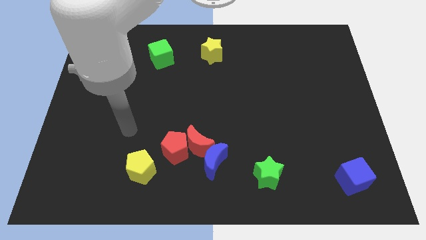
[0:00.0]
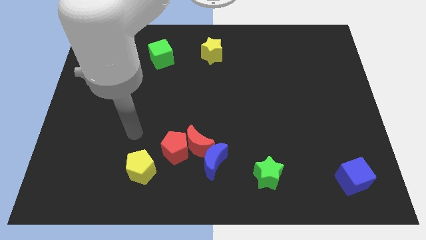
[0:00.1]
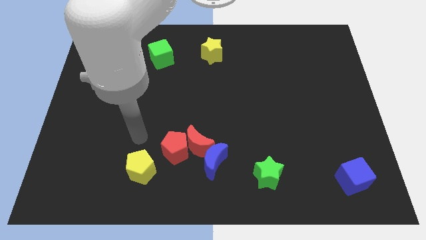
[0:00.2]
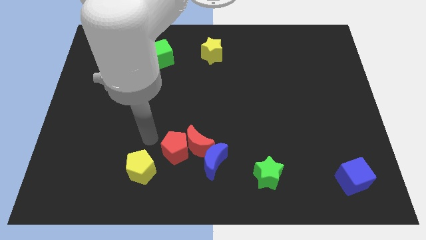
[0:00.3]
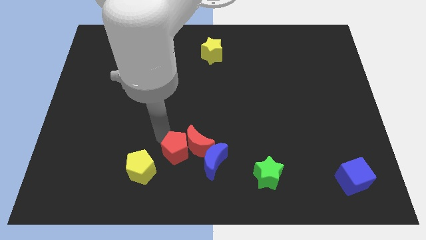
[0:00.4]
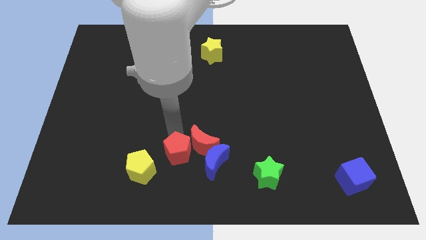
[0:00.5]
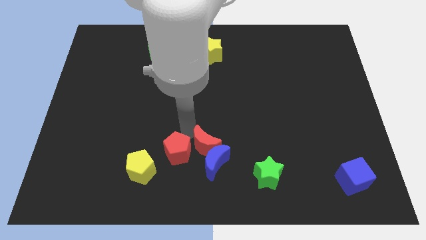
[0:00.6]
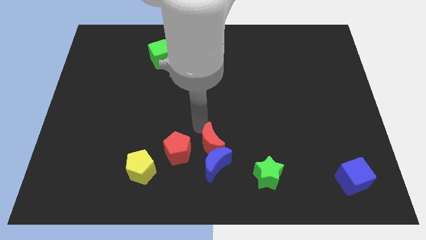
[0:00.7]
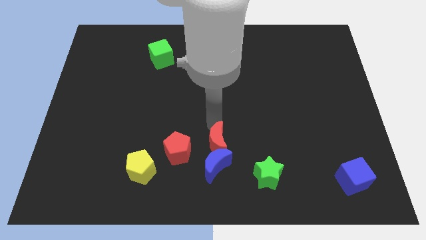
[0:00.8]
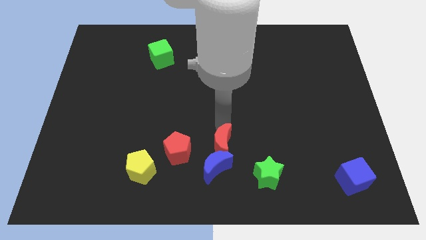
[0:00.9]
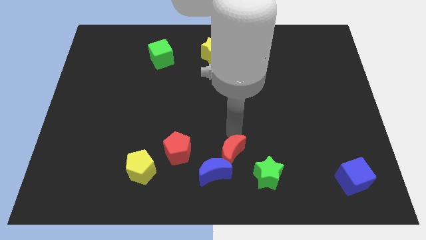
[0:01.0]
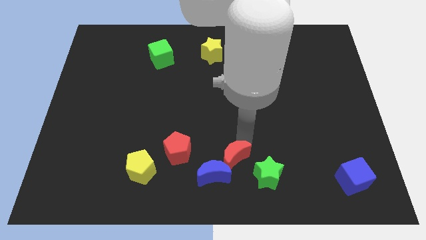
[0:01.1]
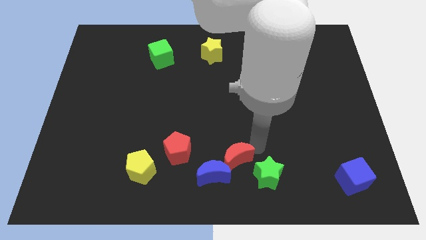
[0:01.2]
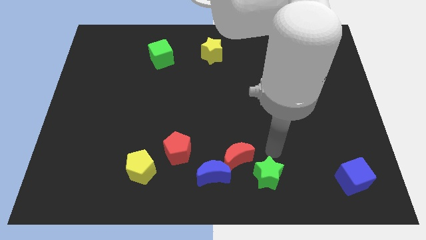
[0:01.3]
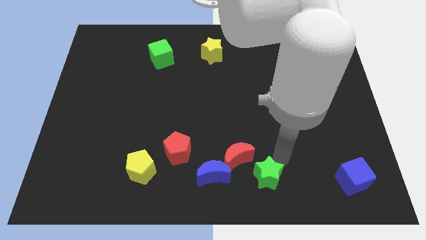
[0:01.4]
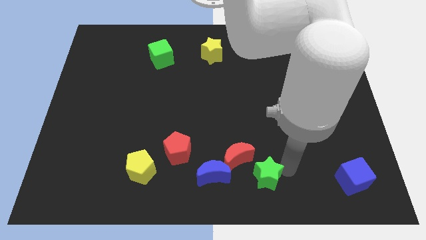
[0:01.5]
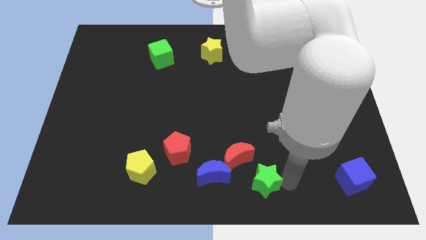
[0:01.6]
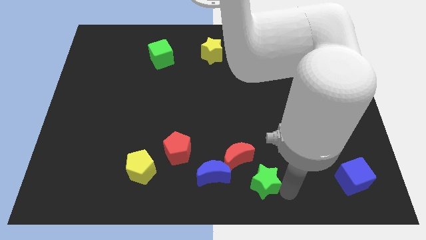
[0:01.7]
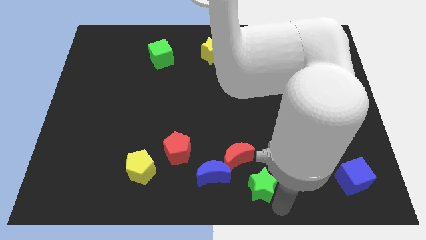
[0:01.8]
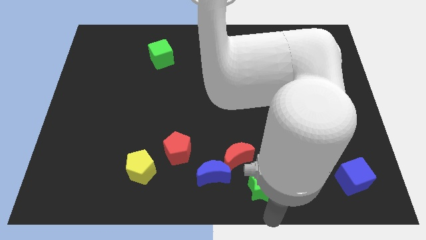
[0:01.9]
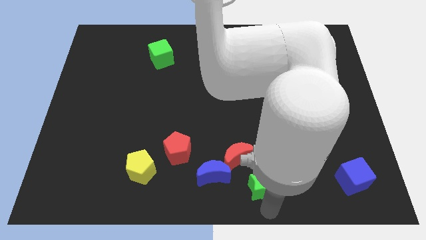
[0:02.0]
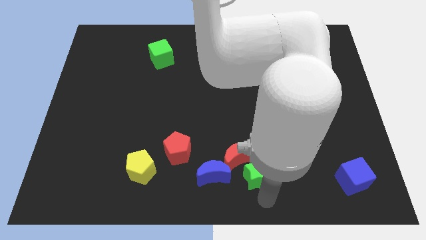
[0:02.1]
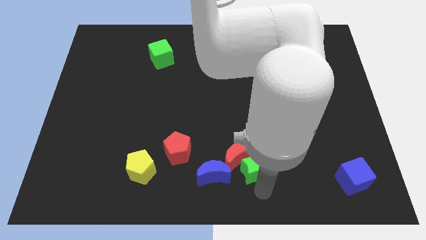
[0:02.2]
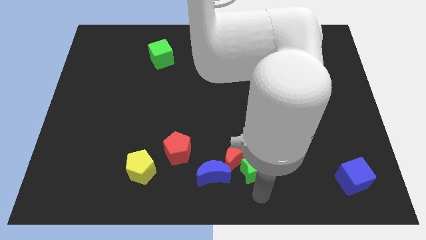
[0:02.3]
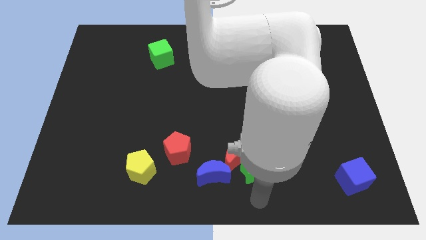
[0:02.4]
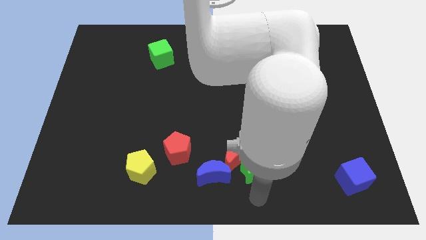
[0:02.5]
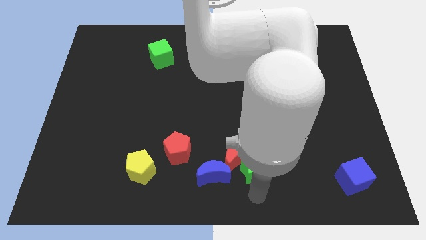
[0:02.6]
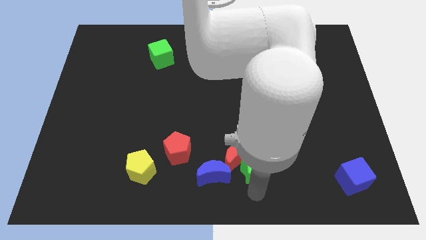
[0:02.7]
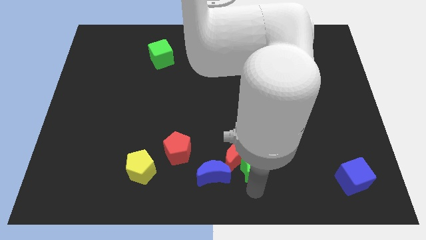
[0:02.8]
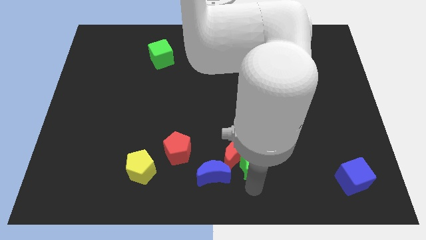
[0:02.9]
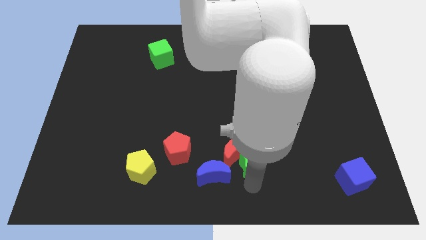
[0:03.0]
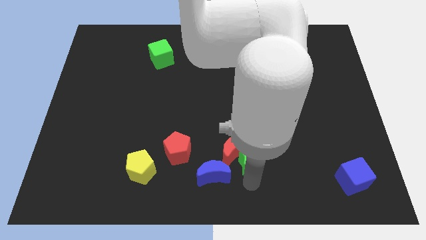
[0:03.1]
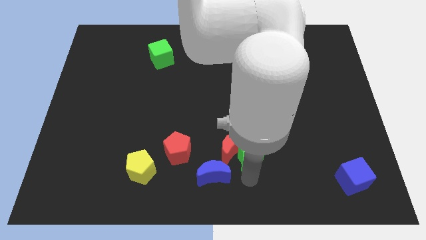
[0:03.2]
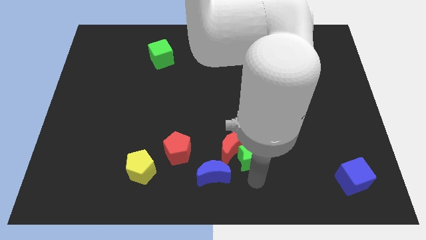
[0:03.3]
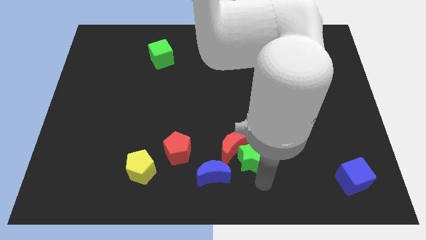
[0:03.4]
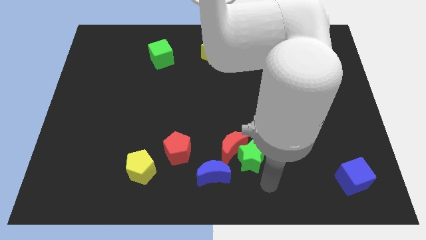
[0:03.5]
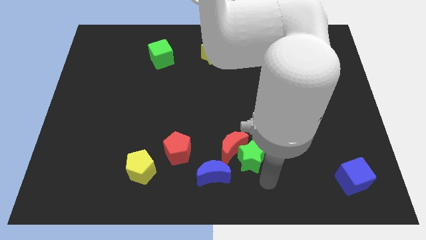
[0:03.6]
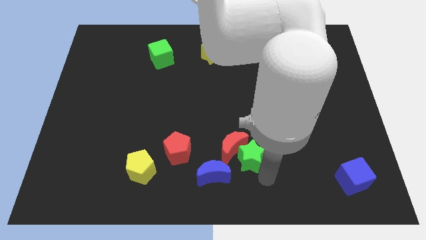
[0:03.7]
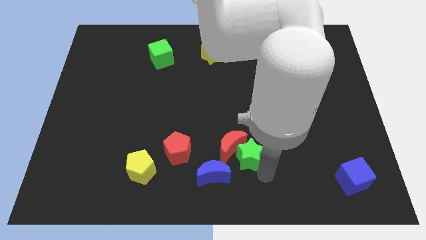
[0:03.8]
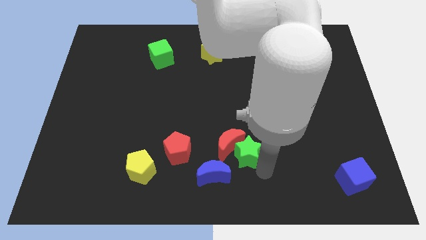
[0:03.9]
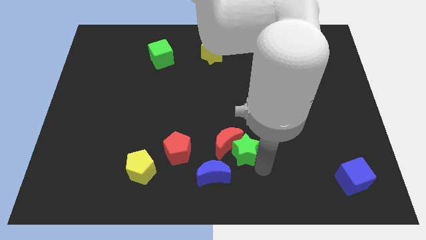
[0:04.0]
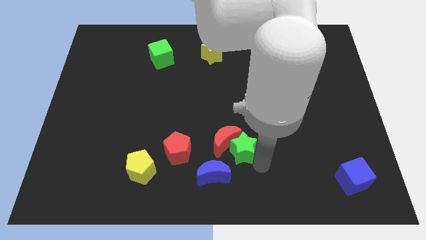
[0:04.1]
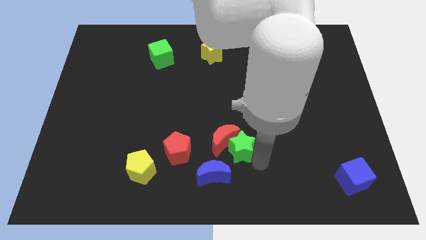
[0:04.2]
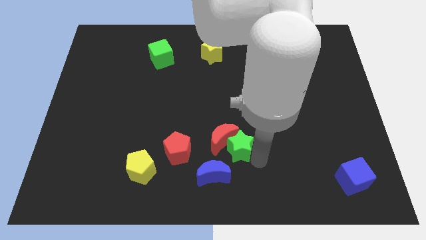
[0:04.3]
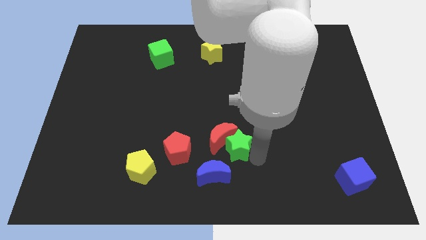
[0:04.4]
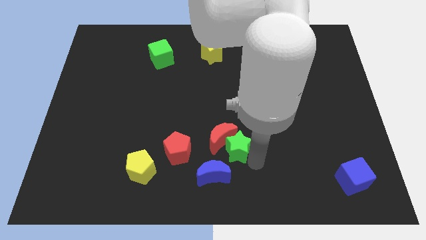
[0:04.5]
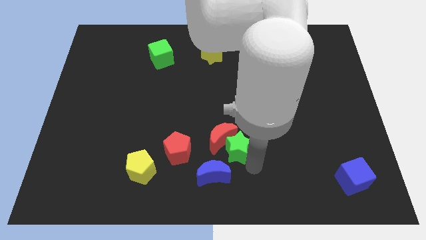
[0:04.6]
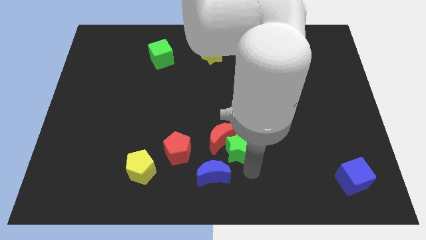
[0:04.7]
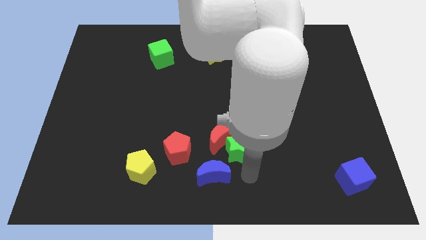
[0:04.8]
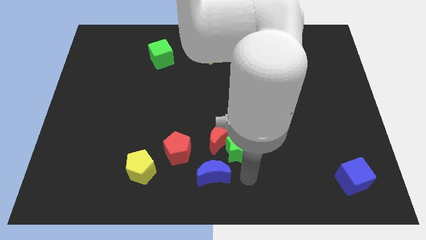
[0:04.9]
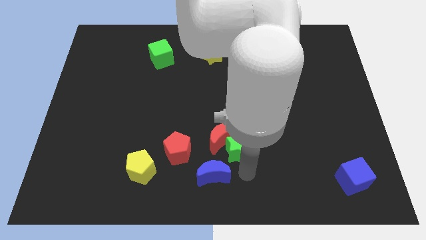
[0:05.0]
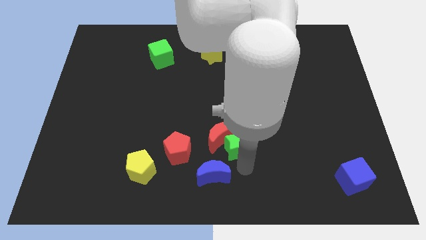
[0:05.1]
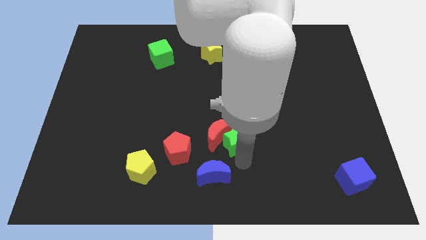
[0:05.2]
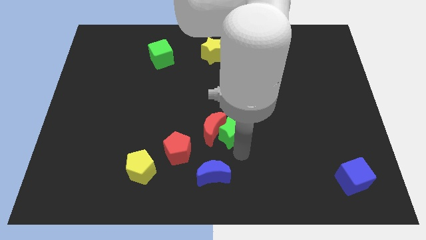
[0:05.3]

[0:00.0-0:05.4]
push the green star to the middle

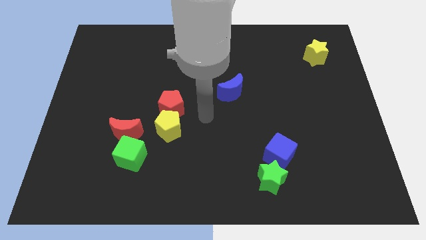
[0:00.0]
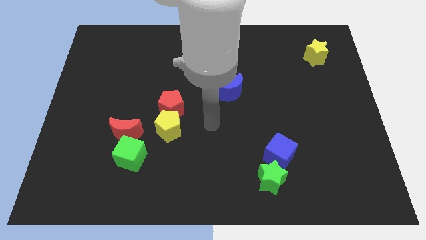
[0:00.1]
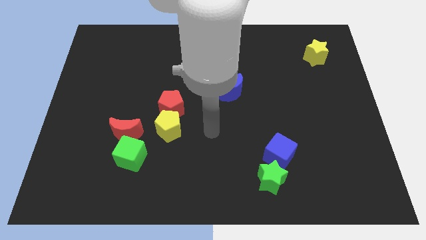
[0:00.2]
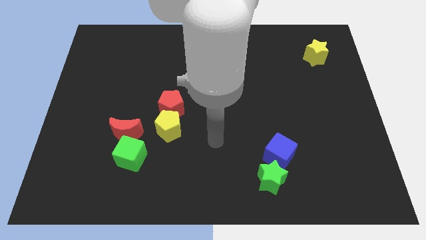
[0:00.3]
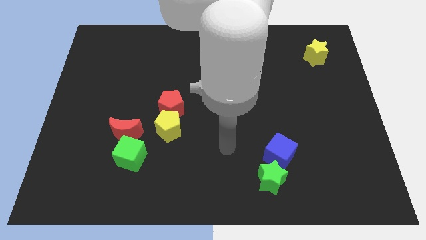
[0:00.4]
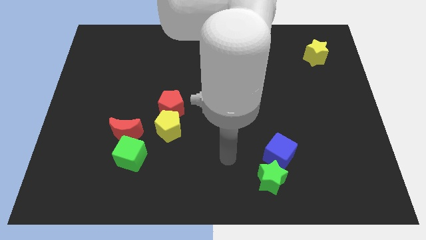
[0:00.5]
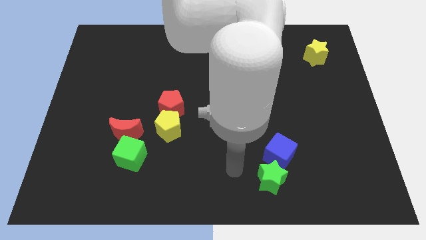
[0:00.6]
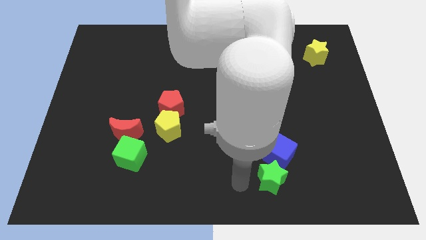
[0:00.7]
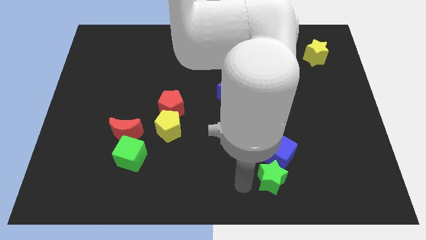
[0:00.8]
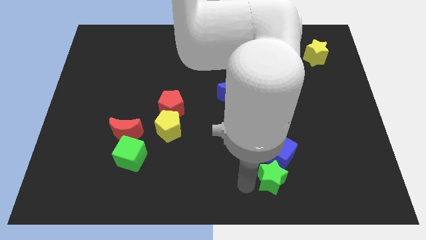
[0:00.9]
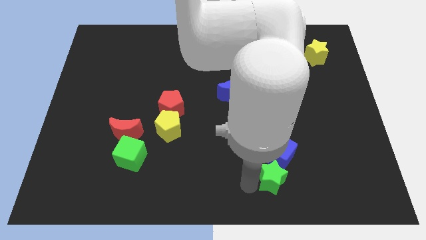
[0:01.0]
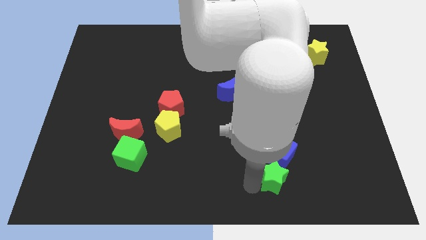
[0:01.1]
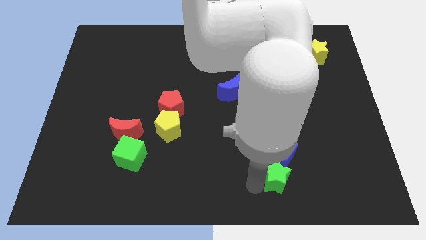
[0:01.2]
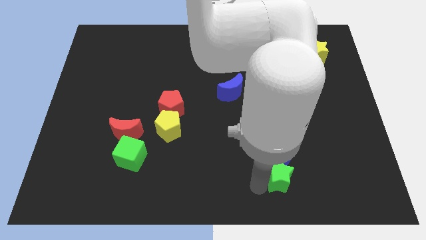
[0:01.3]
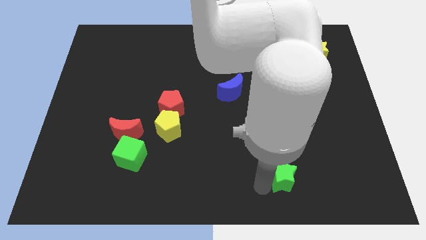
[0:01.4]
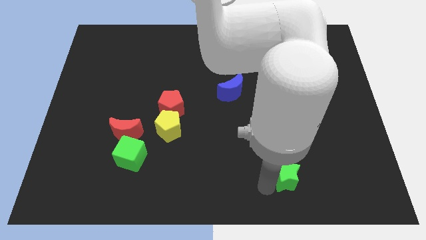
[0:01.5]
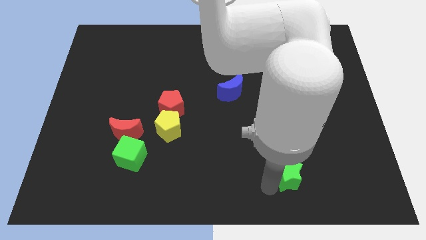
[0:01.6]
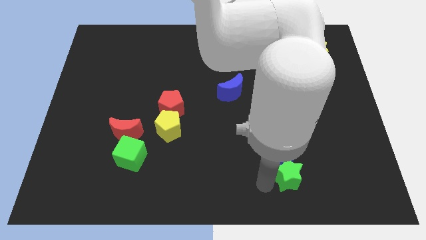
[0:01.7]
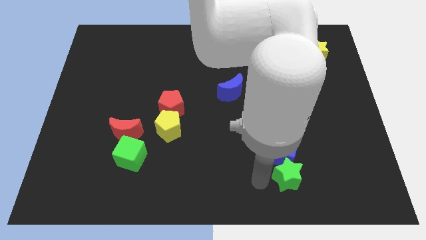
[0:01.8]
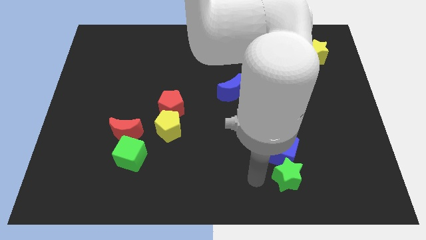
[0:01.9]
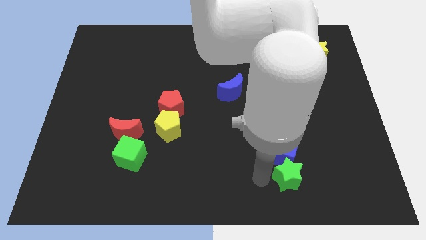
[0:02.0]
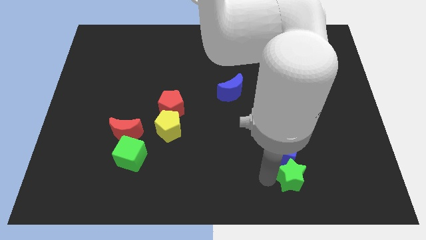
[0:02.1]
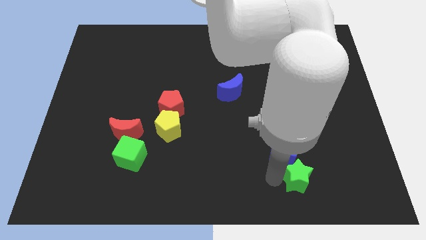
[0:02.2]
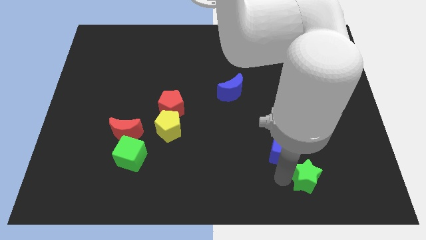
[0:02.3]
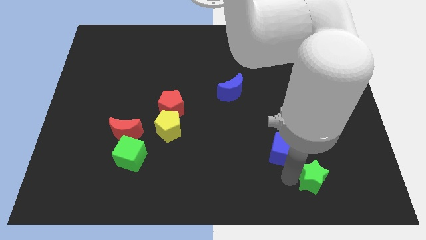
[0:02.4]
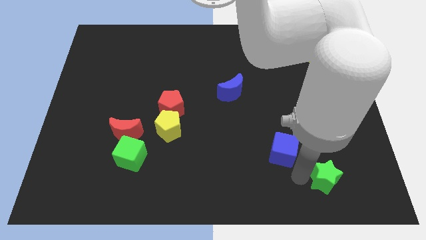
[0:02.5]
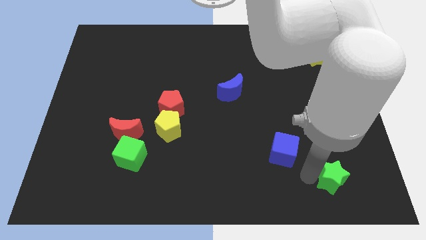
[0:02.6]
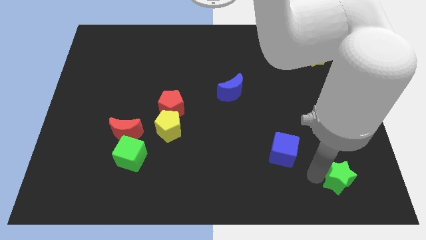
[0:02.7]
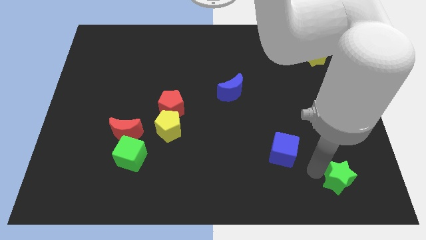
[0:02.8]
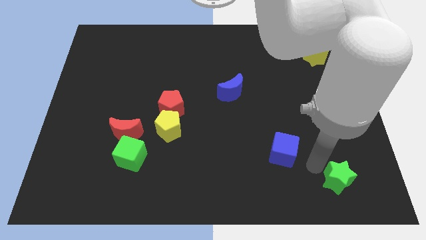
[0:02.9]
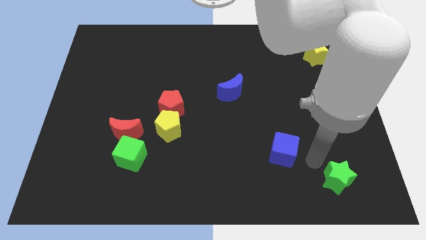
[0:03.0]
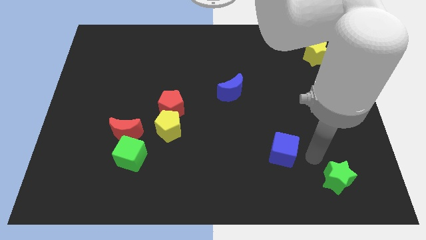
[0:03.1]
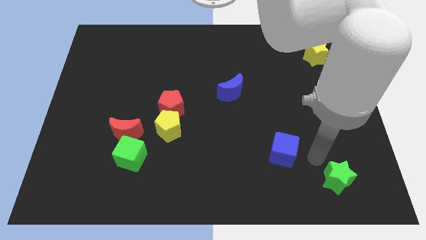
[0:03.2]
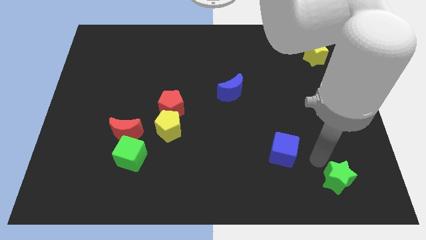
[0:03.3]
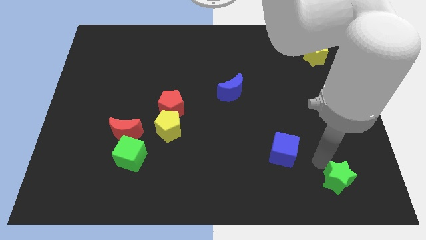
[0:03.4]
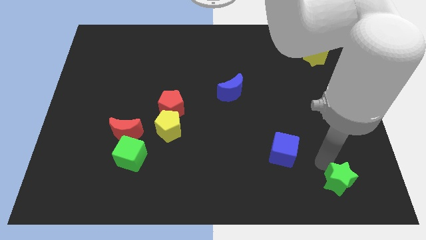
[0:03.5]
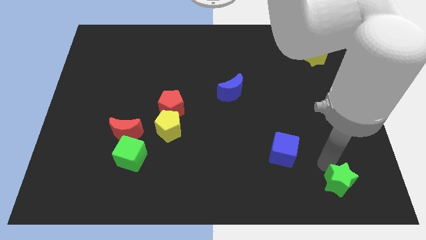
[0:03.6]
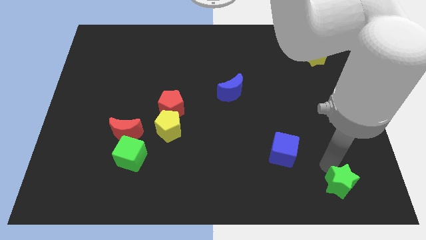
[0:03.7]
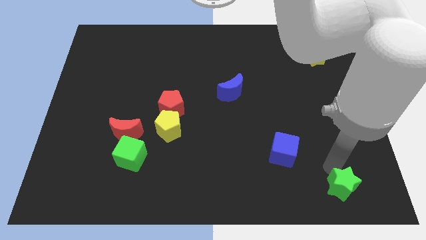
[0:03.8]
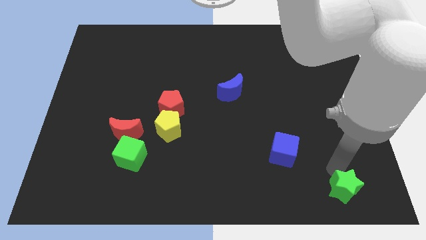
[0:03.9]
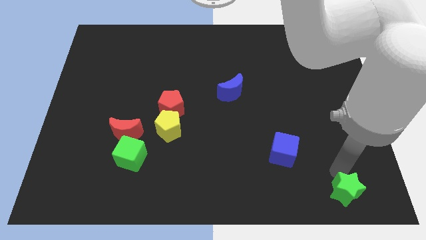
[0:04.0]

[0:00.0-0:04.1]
put the green star to the bottom right of the board
